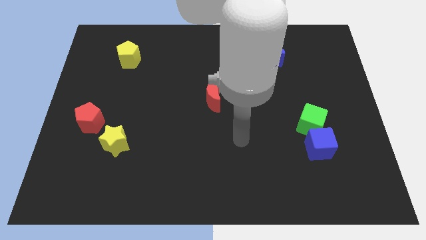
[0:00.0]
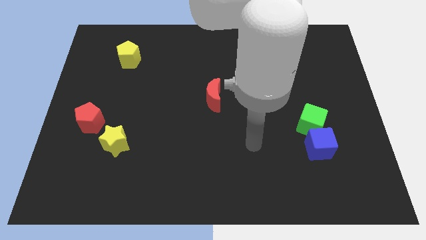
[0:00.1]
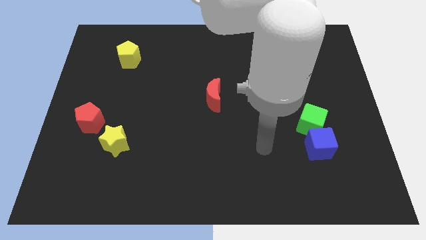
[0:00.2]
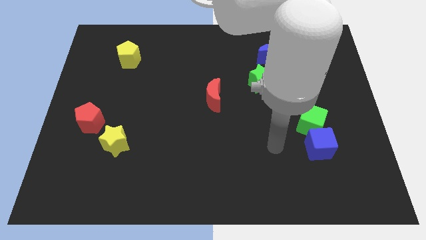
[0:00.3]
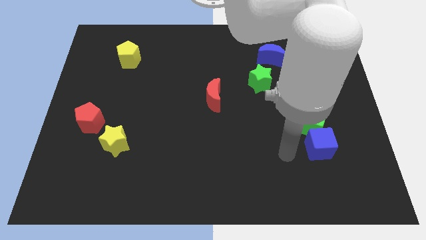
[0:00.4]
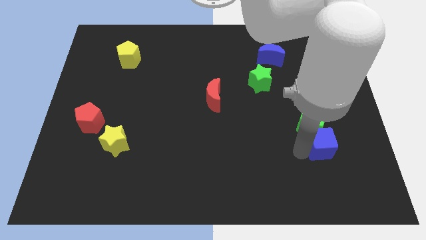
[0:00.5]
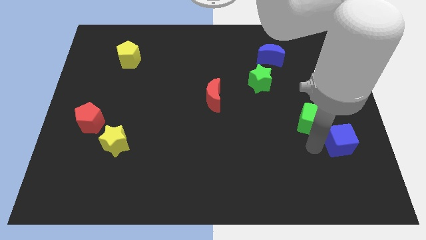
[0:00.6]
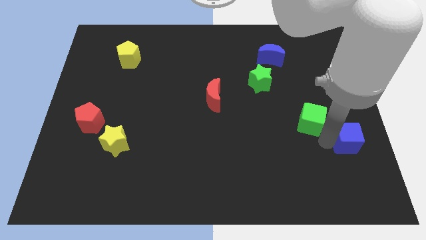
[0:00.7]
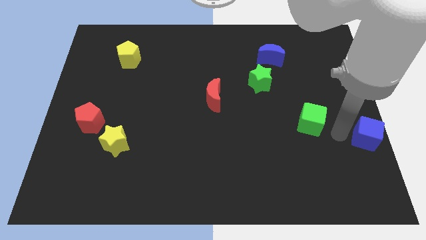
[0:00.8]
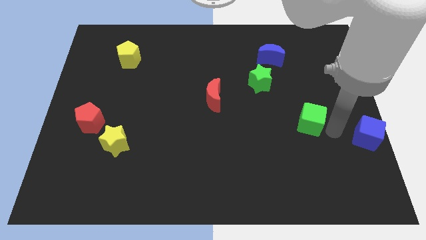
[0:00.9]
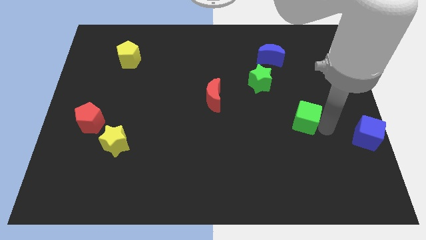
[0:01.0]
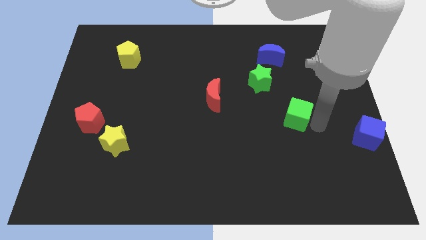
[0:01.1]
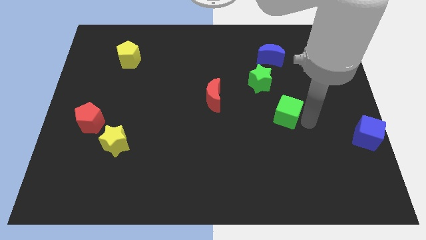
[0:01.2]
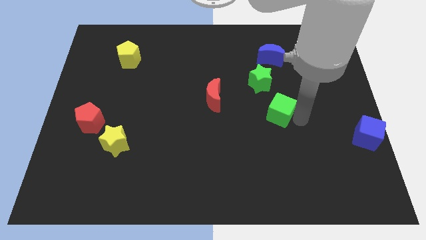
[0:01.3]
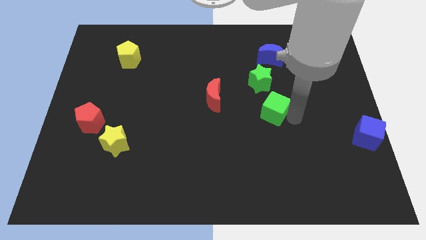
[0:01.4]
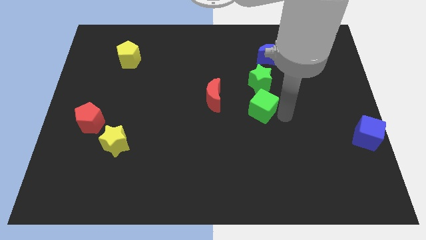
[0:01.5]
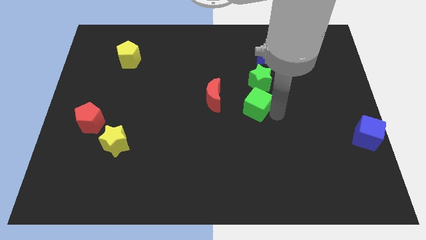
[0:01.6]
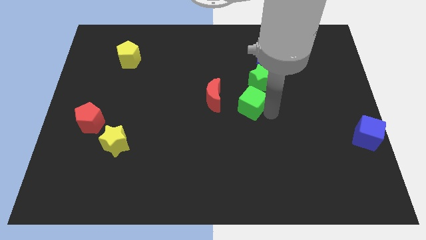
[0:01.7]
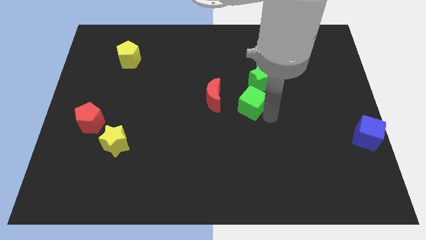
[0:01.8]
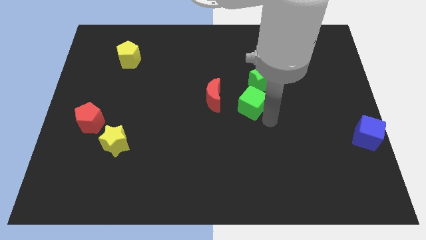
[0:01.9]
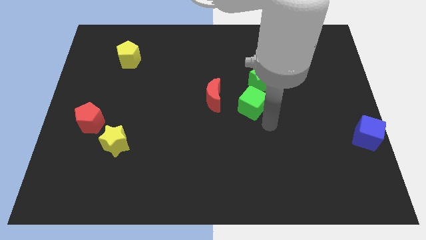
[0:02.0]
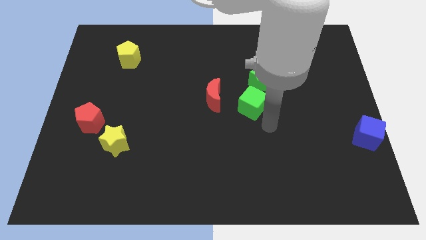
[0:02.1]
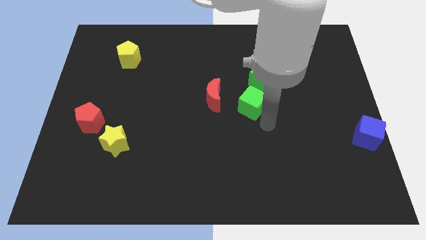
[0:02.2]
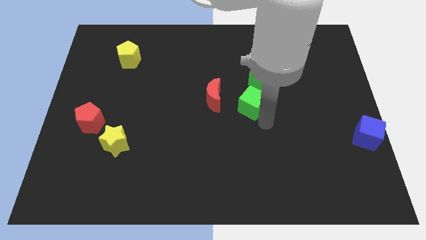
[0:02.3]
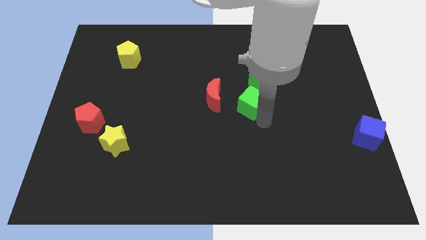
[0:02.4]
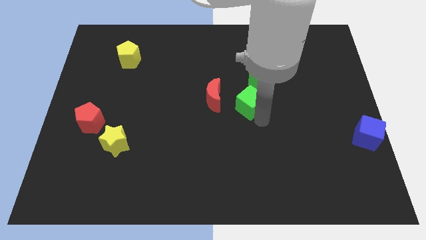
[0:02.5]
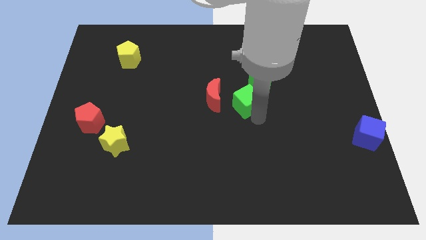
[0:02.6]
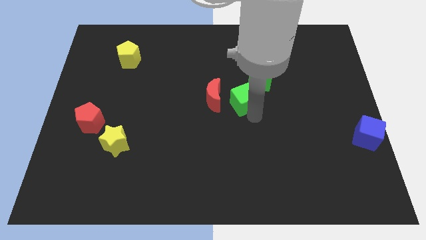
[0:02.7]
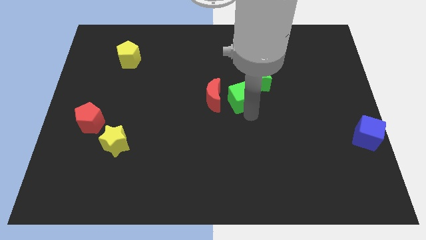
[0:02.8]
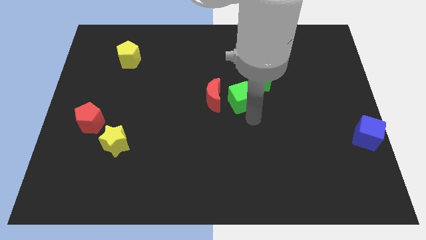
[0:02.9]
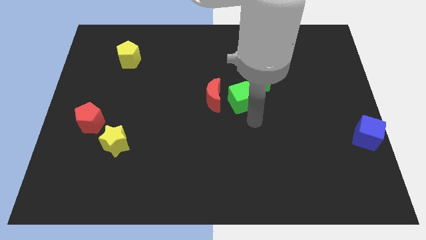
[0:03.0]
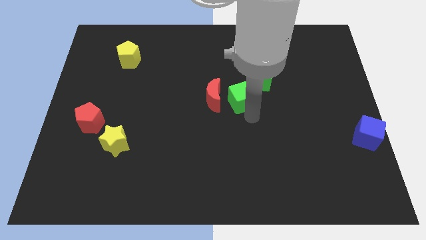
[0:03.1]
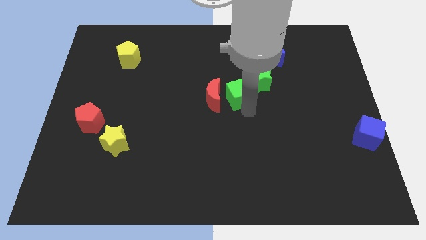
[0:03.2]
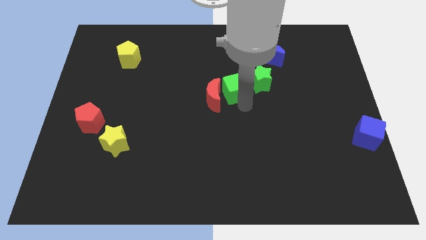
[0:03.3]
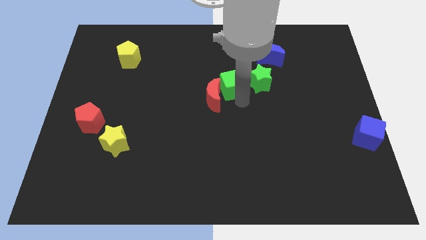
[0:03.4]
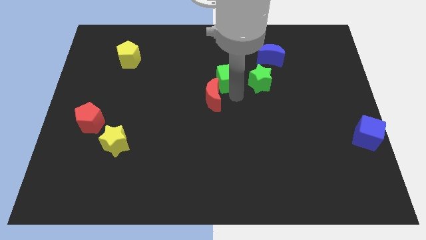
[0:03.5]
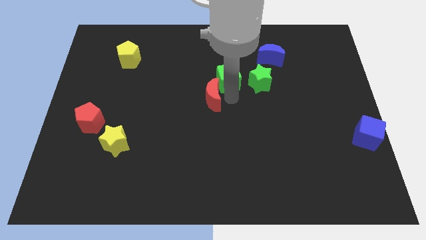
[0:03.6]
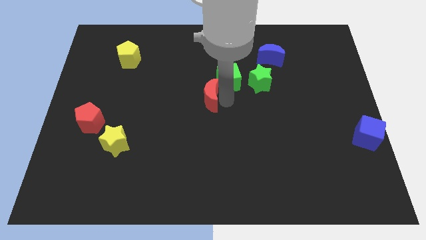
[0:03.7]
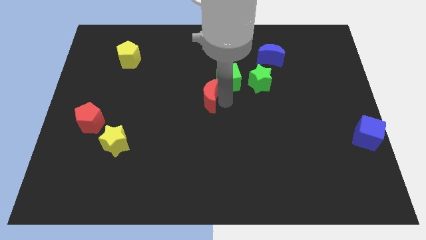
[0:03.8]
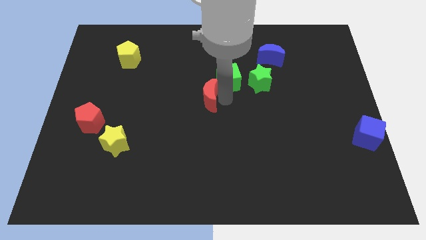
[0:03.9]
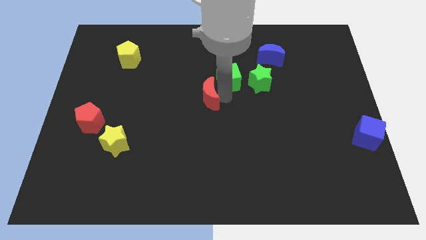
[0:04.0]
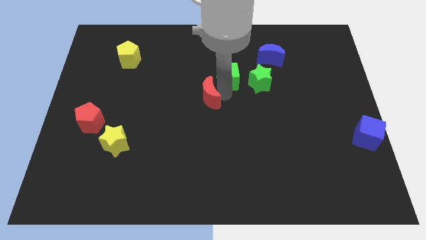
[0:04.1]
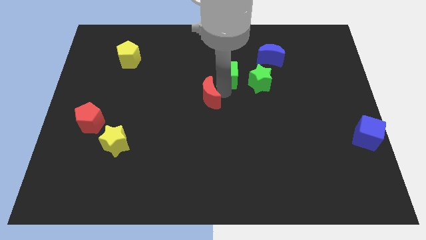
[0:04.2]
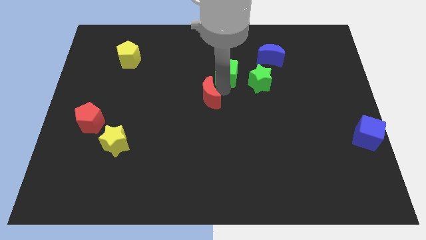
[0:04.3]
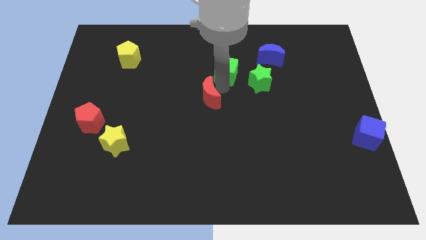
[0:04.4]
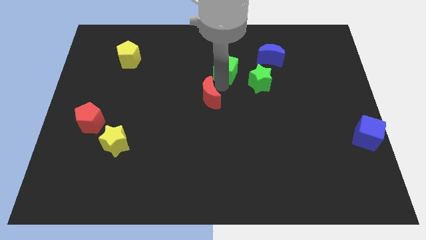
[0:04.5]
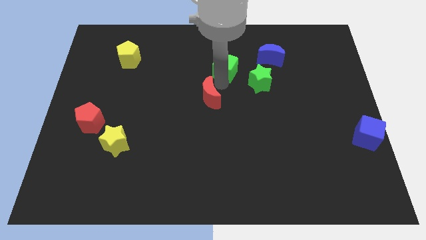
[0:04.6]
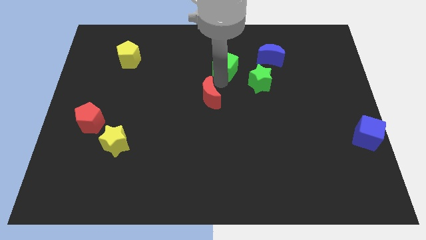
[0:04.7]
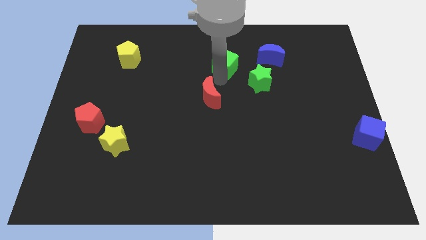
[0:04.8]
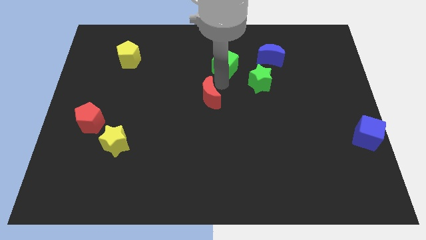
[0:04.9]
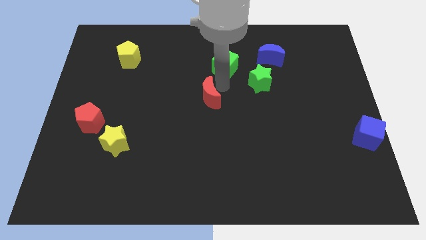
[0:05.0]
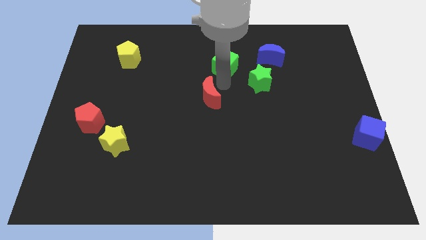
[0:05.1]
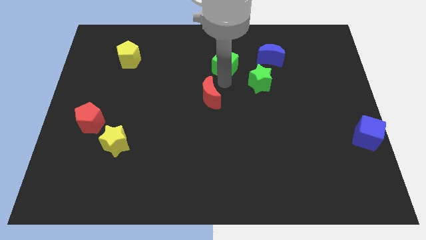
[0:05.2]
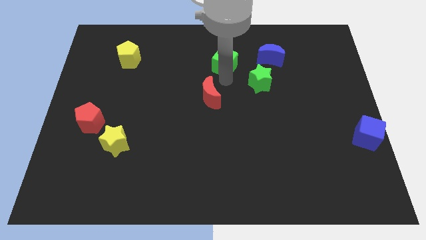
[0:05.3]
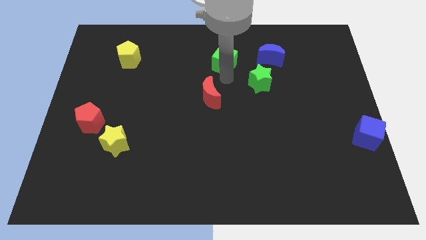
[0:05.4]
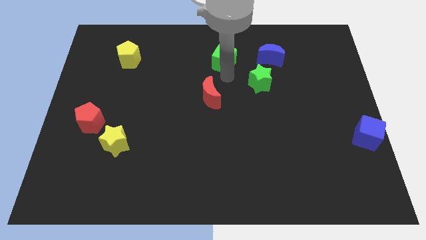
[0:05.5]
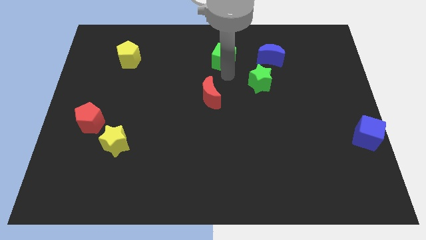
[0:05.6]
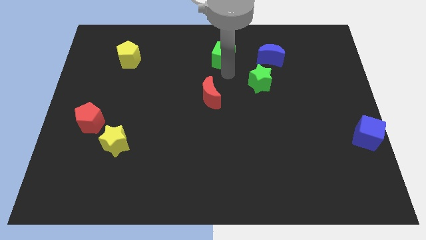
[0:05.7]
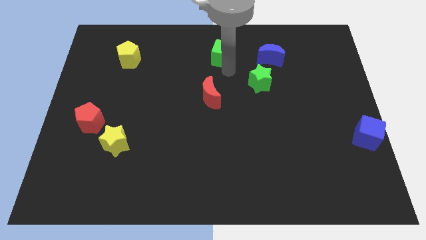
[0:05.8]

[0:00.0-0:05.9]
put the green cube to the towards your base

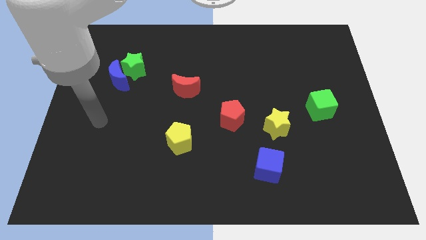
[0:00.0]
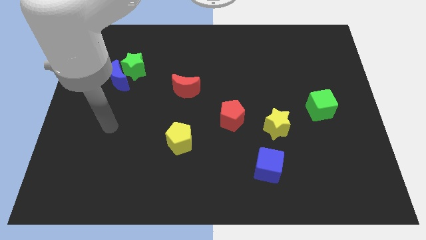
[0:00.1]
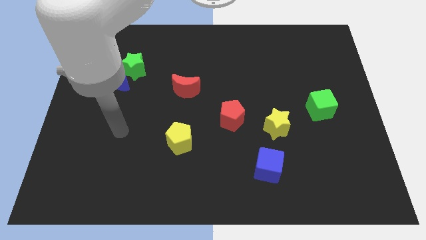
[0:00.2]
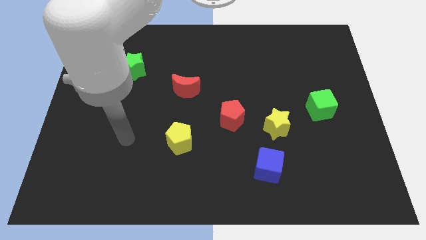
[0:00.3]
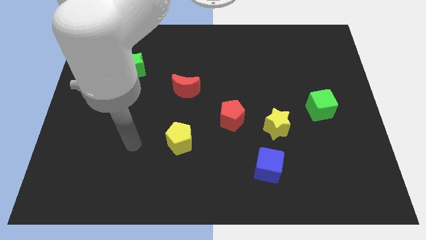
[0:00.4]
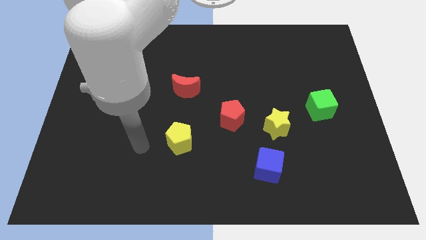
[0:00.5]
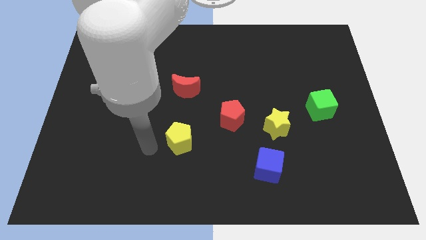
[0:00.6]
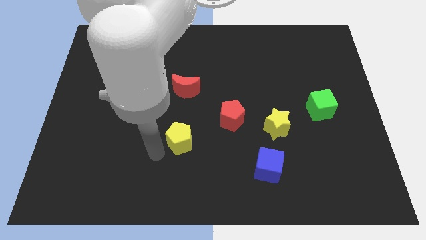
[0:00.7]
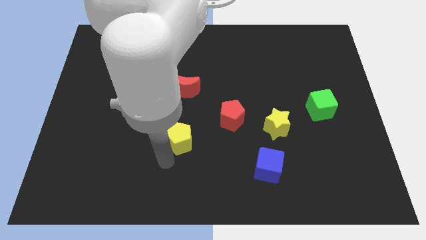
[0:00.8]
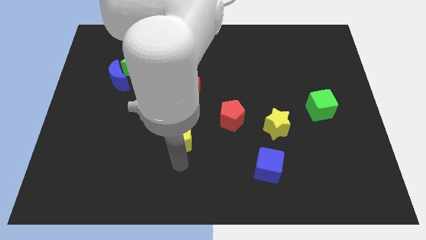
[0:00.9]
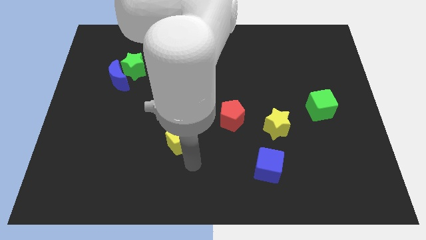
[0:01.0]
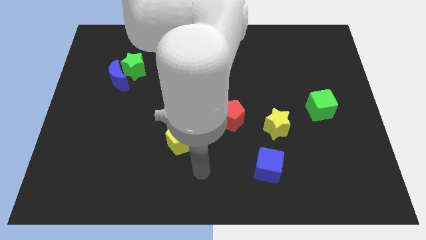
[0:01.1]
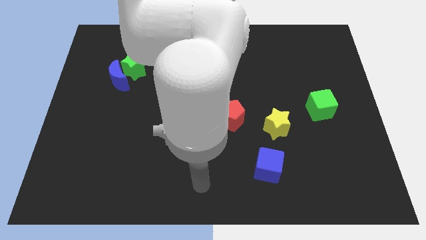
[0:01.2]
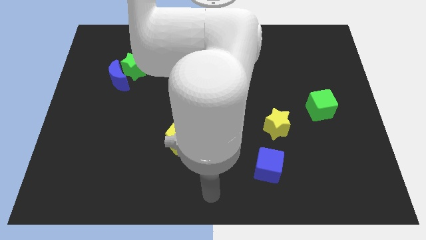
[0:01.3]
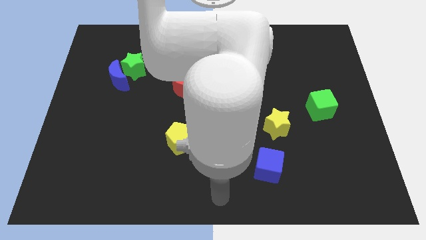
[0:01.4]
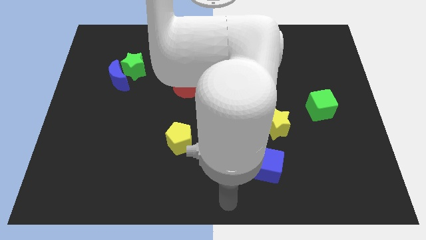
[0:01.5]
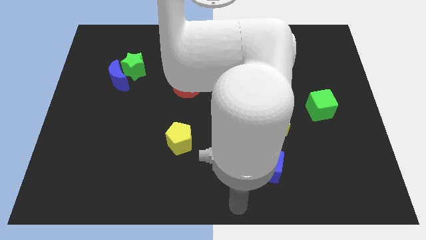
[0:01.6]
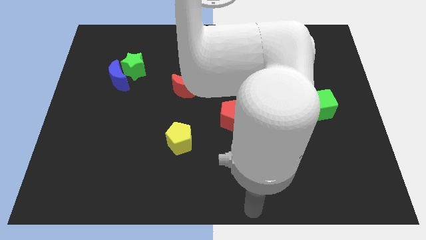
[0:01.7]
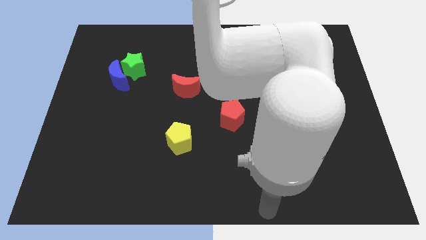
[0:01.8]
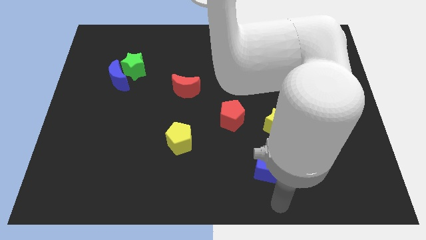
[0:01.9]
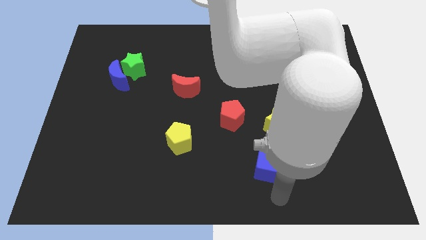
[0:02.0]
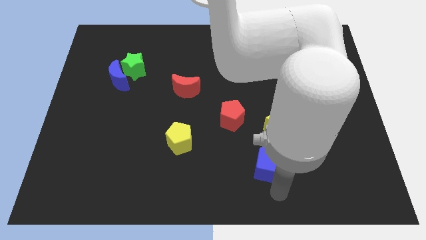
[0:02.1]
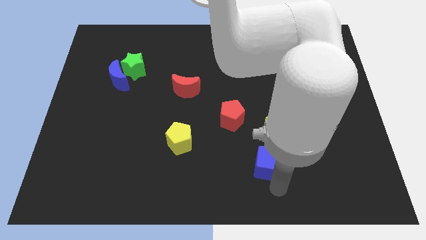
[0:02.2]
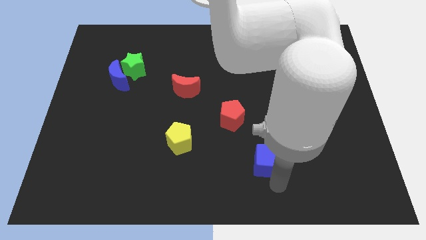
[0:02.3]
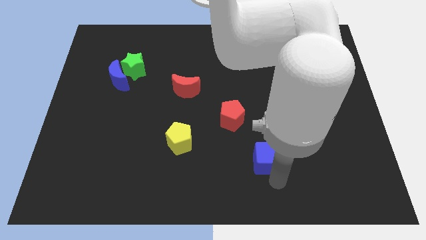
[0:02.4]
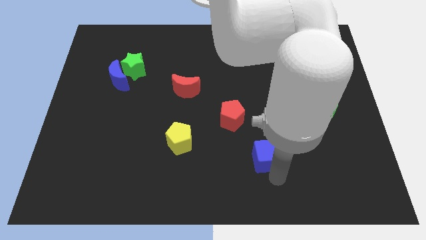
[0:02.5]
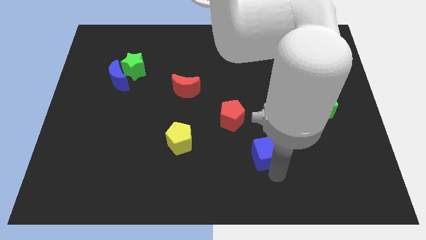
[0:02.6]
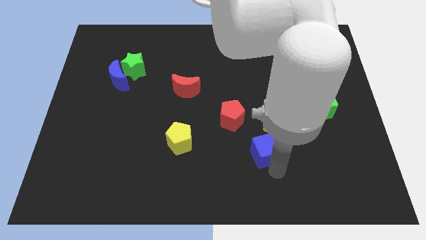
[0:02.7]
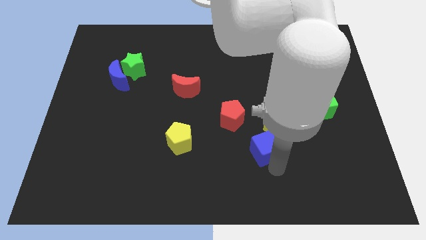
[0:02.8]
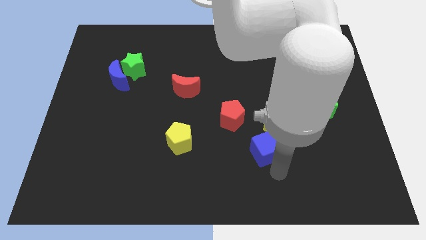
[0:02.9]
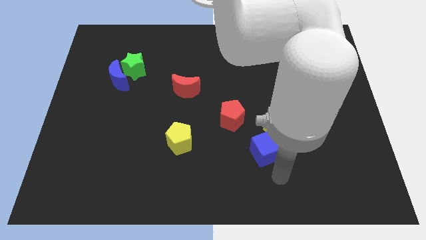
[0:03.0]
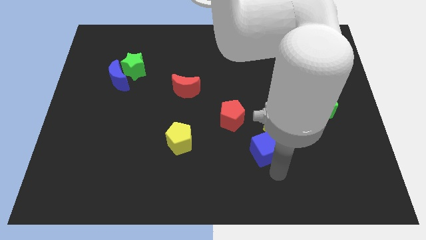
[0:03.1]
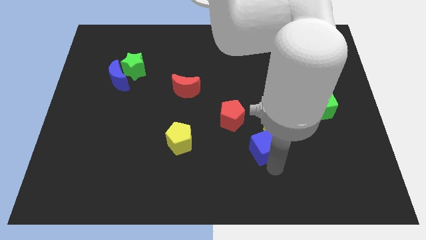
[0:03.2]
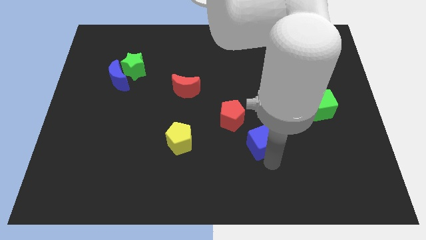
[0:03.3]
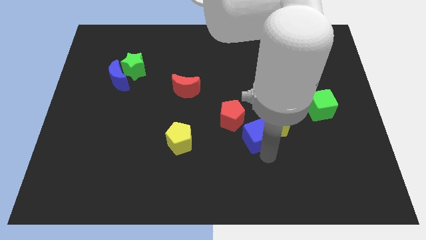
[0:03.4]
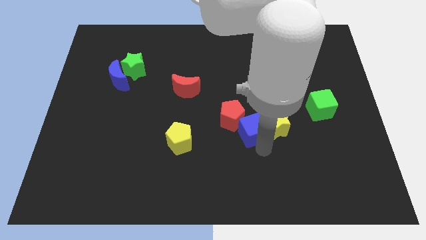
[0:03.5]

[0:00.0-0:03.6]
move the blue cube to the middle of the board
